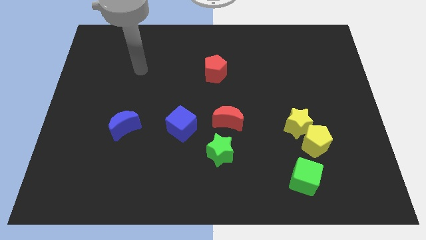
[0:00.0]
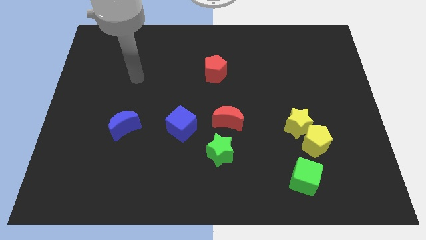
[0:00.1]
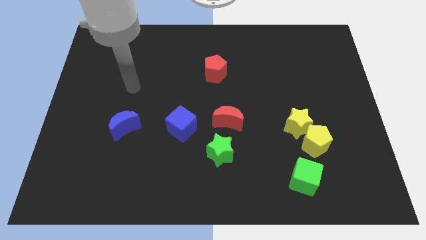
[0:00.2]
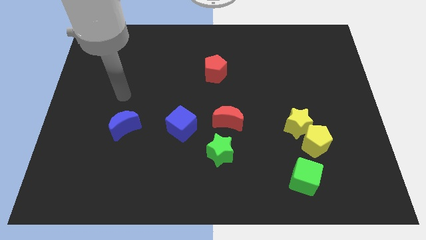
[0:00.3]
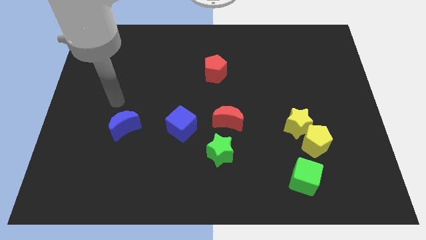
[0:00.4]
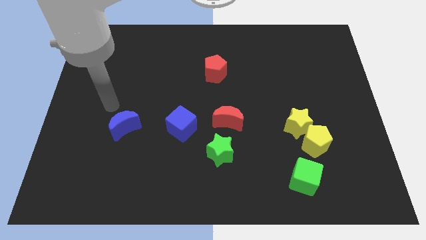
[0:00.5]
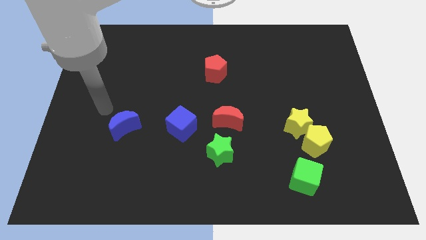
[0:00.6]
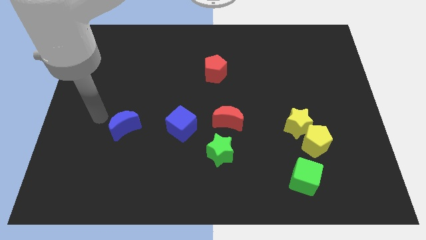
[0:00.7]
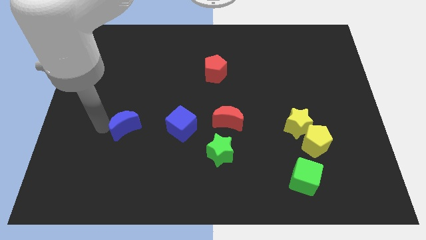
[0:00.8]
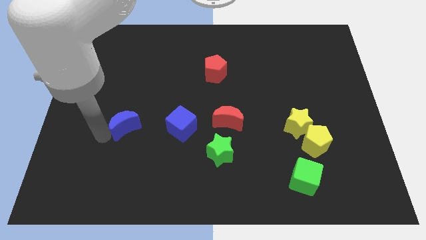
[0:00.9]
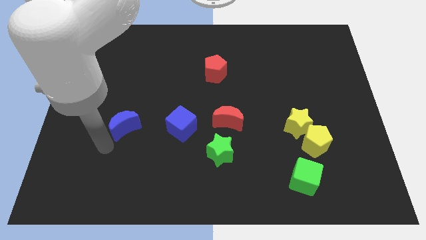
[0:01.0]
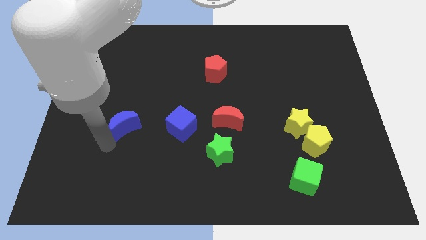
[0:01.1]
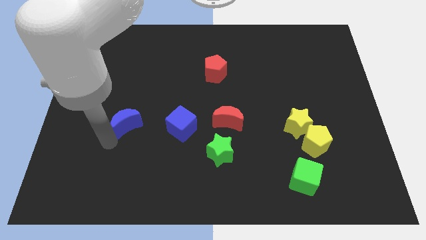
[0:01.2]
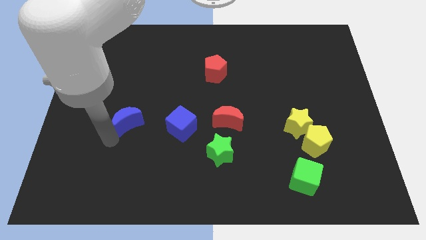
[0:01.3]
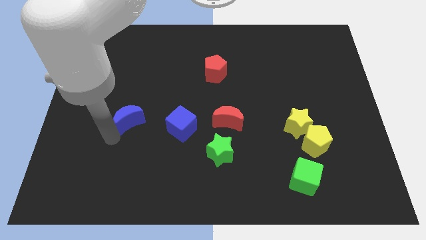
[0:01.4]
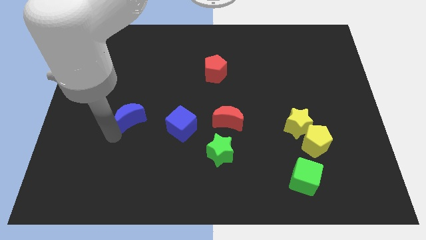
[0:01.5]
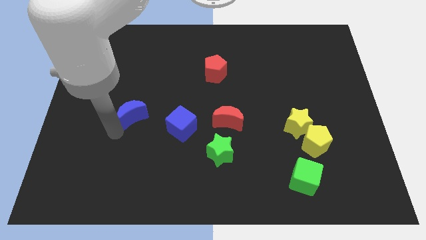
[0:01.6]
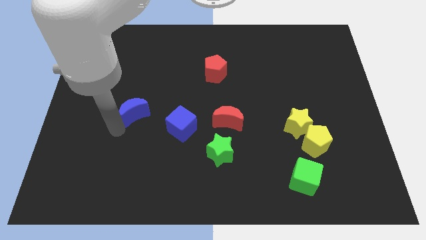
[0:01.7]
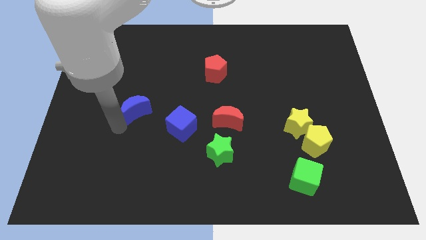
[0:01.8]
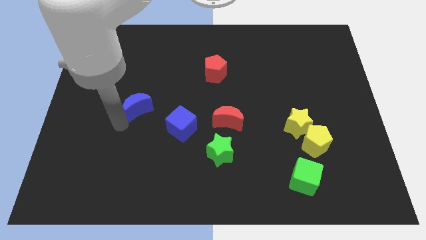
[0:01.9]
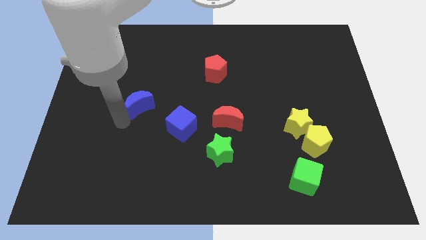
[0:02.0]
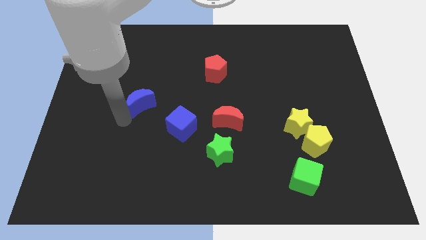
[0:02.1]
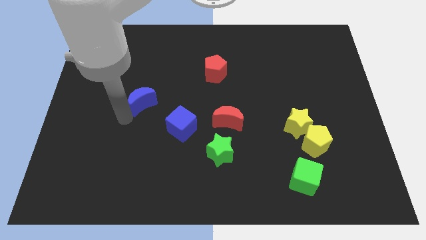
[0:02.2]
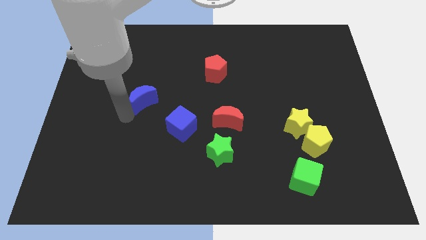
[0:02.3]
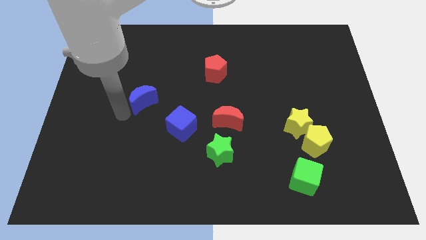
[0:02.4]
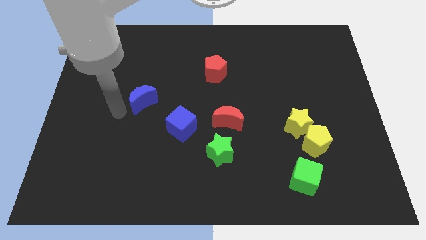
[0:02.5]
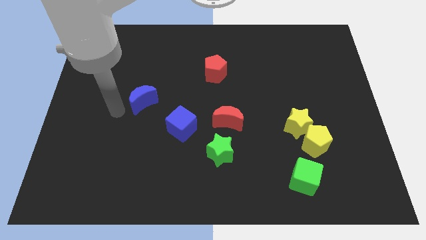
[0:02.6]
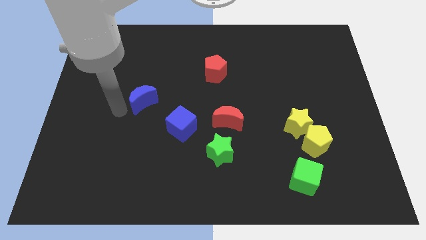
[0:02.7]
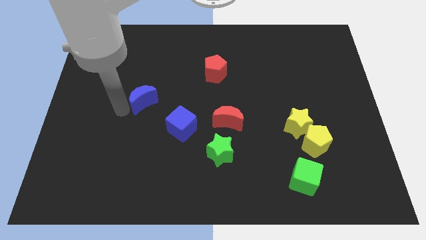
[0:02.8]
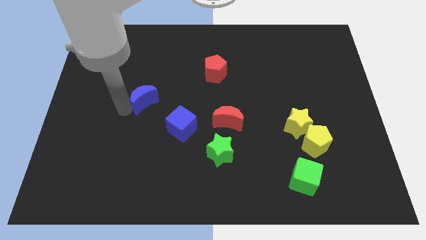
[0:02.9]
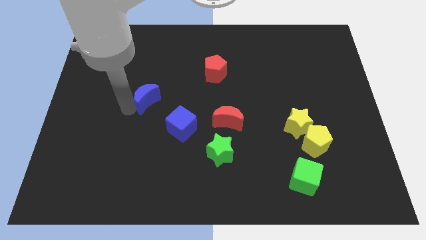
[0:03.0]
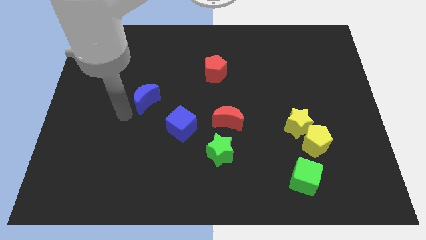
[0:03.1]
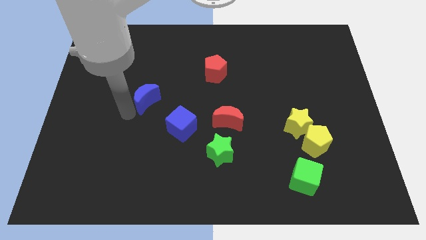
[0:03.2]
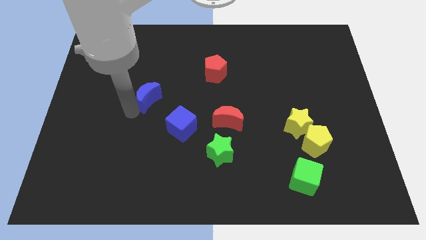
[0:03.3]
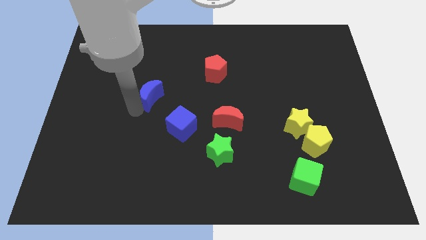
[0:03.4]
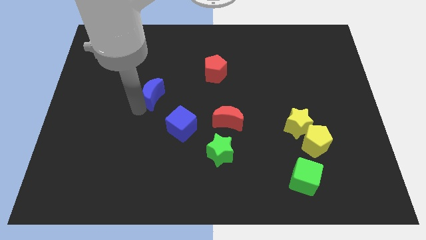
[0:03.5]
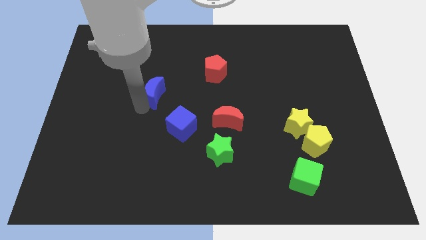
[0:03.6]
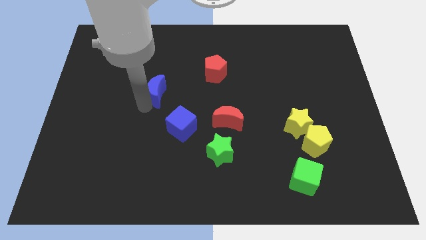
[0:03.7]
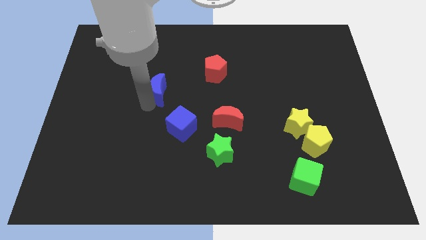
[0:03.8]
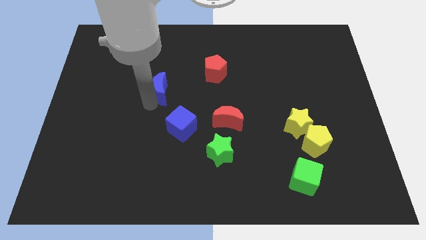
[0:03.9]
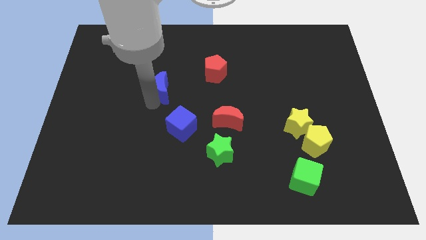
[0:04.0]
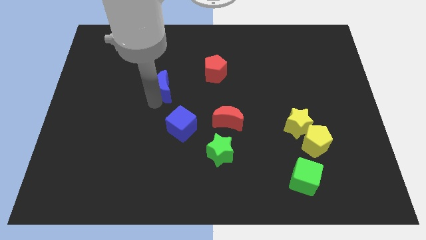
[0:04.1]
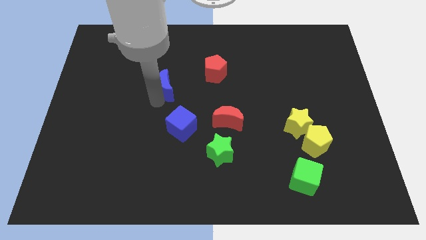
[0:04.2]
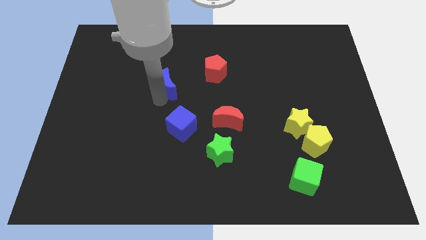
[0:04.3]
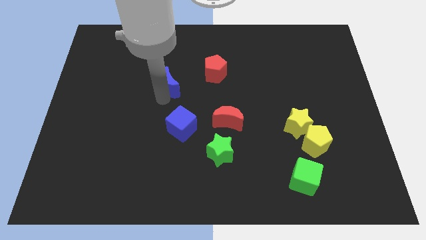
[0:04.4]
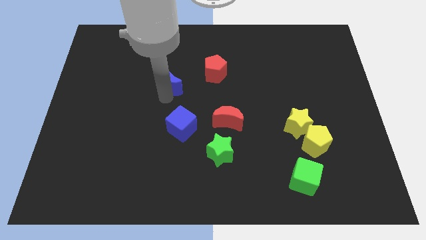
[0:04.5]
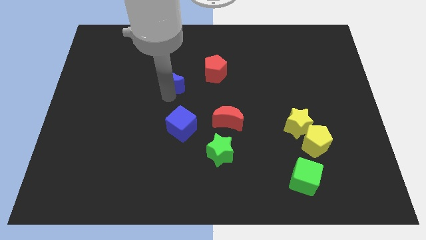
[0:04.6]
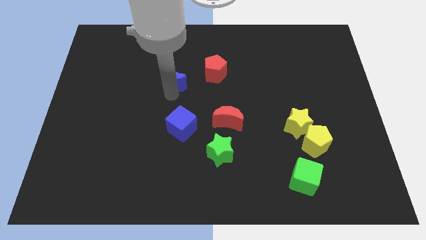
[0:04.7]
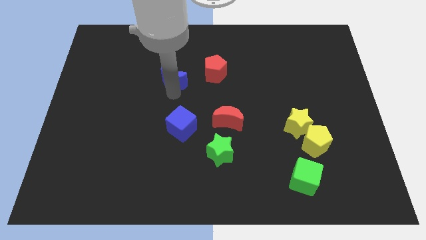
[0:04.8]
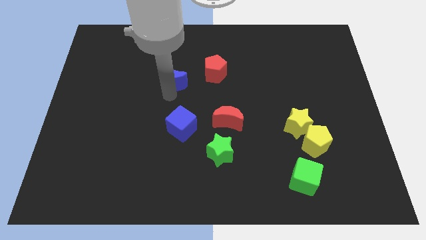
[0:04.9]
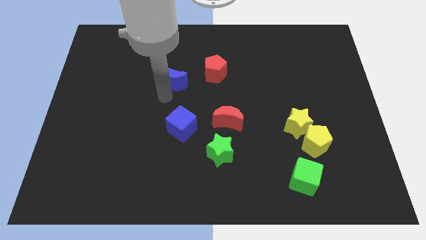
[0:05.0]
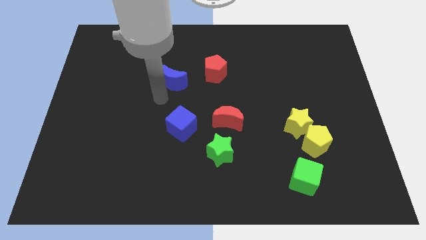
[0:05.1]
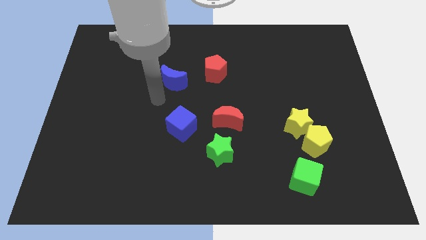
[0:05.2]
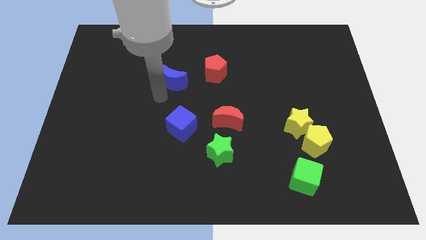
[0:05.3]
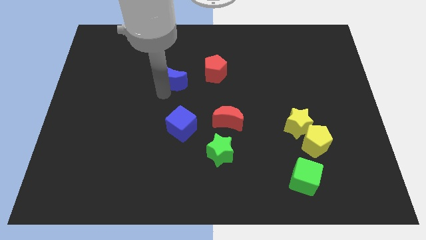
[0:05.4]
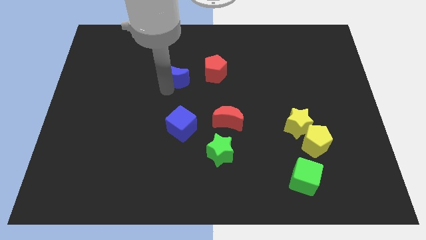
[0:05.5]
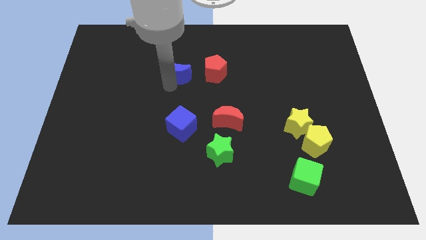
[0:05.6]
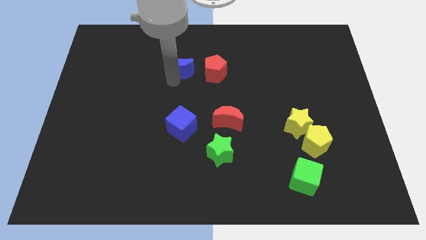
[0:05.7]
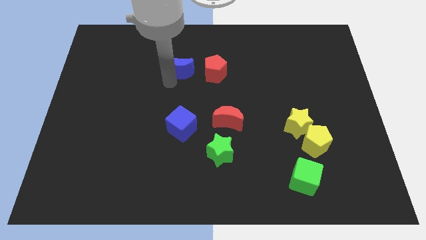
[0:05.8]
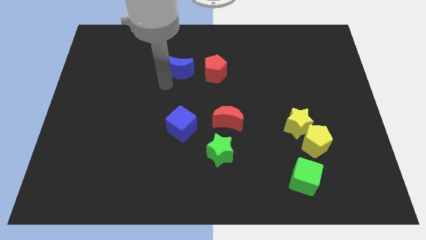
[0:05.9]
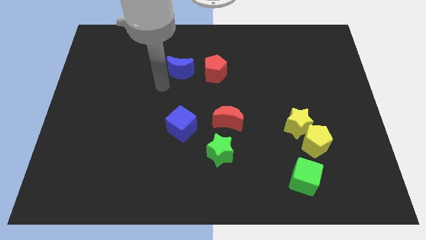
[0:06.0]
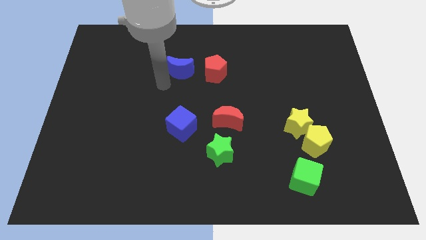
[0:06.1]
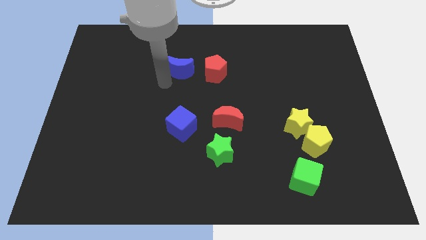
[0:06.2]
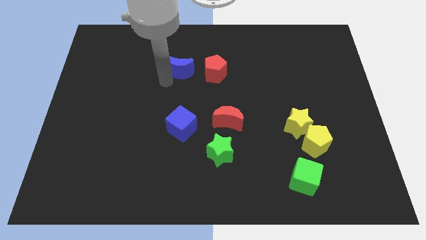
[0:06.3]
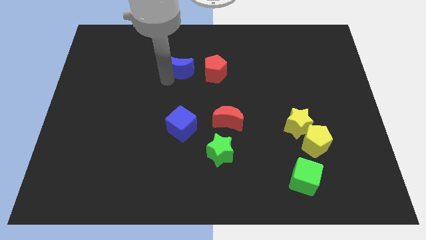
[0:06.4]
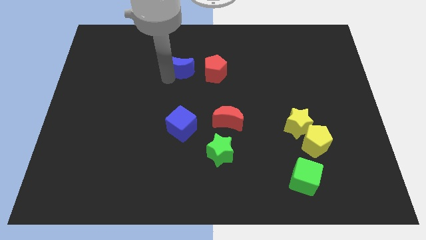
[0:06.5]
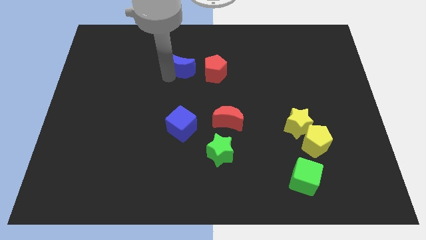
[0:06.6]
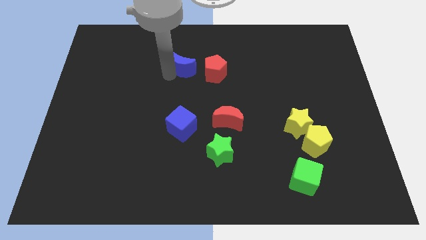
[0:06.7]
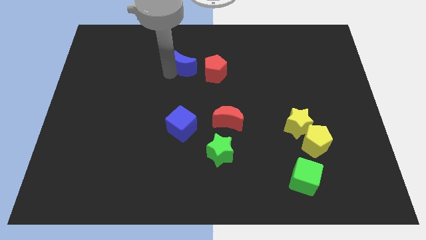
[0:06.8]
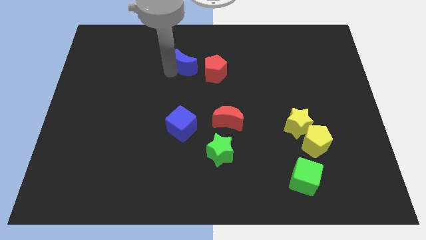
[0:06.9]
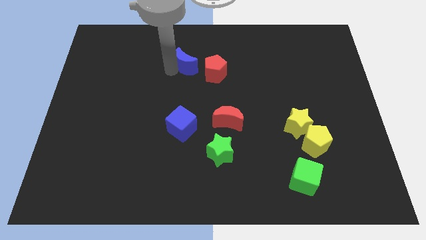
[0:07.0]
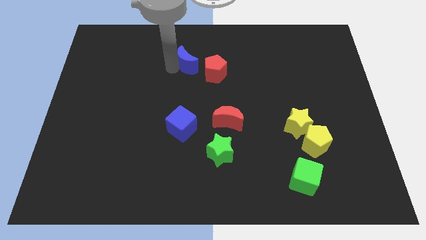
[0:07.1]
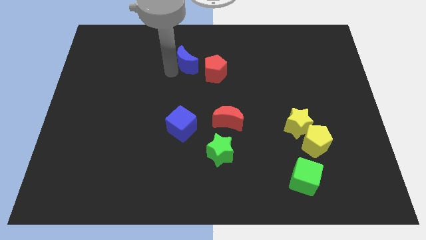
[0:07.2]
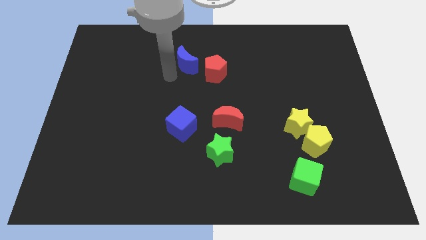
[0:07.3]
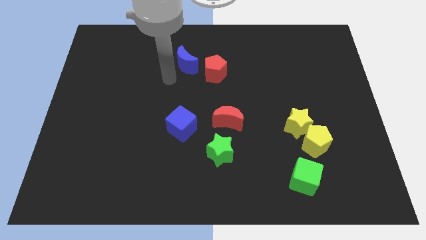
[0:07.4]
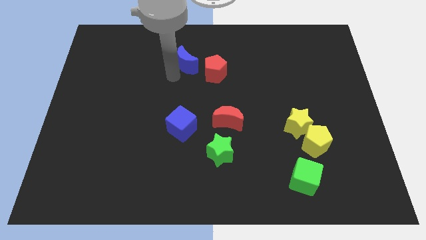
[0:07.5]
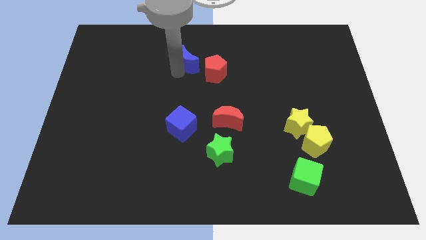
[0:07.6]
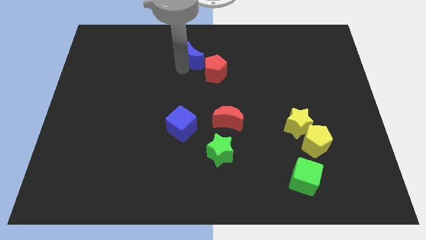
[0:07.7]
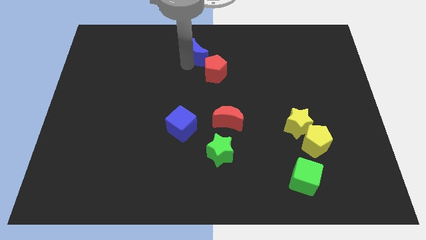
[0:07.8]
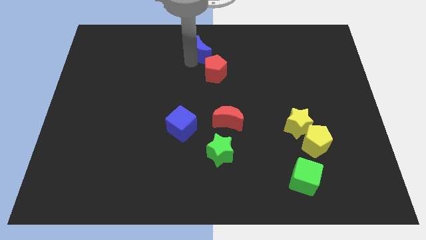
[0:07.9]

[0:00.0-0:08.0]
slide the blue moon to the top side
